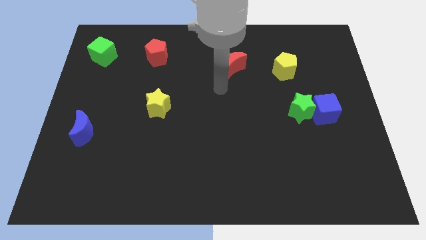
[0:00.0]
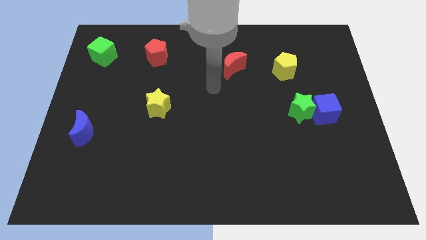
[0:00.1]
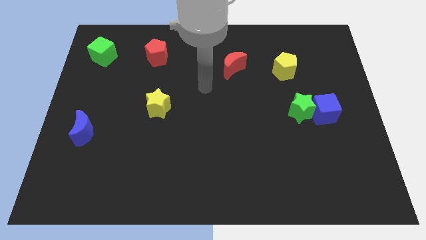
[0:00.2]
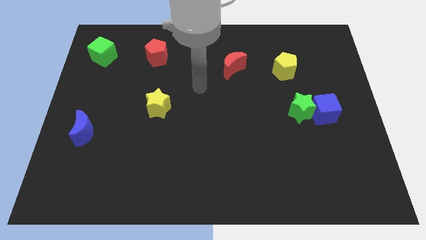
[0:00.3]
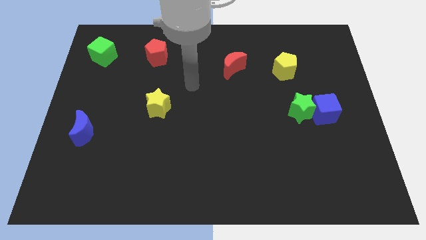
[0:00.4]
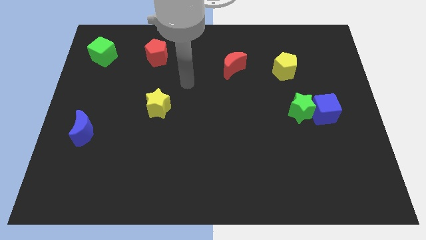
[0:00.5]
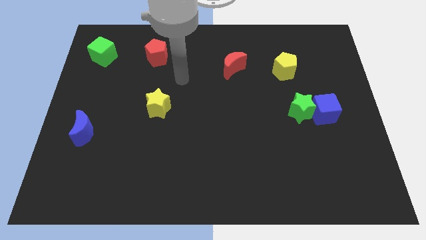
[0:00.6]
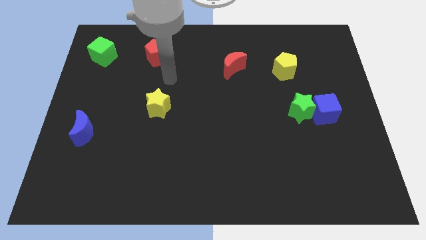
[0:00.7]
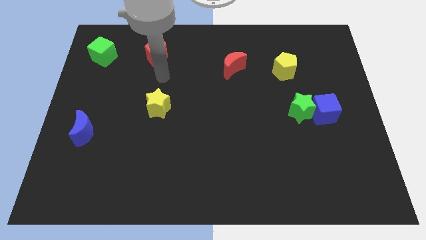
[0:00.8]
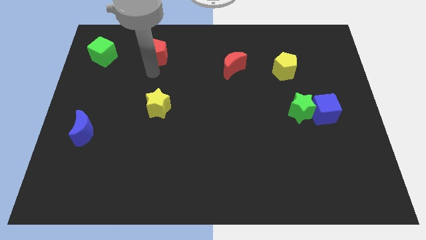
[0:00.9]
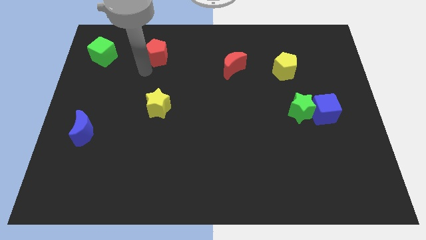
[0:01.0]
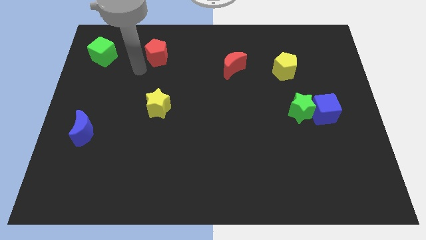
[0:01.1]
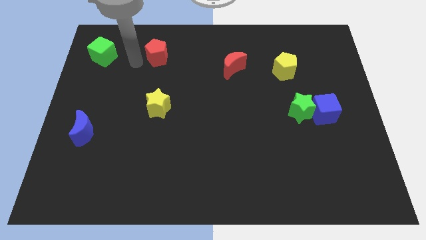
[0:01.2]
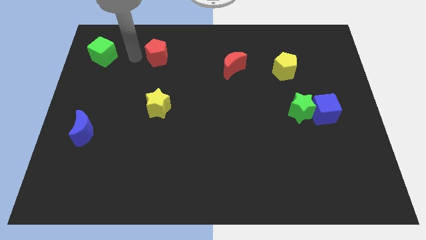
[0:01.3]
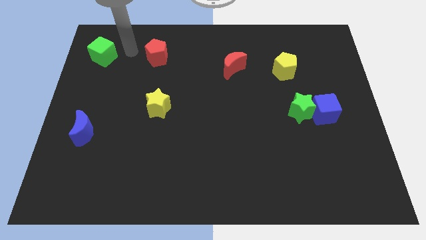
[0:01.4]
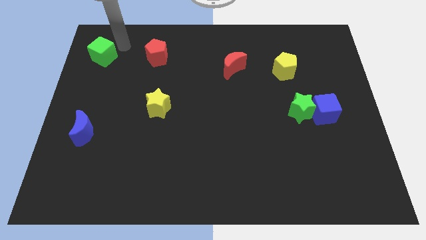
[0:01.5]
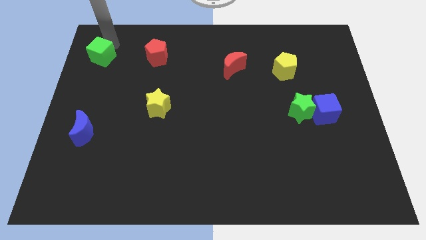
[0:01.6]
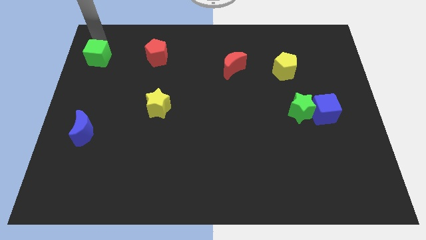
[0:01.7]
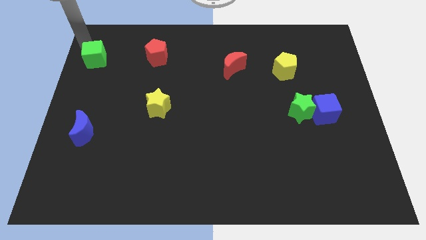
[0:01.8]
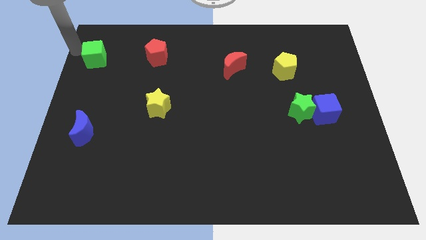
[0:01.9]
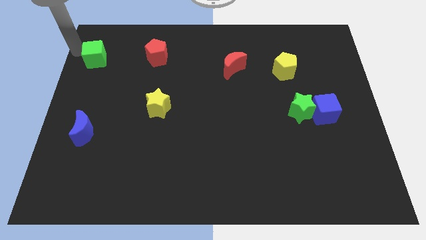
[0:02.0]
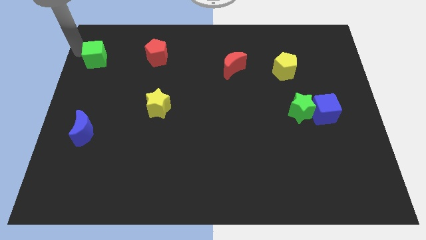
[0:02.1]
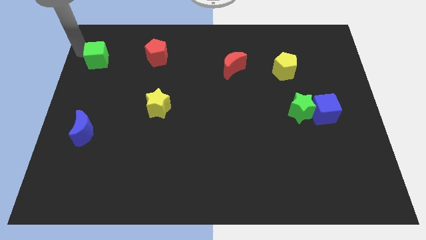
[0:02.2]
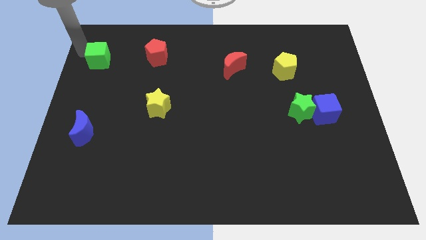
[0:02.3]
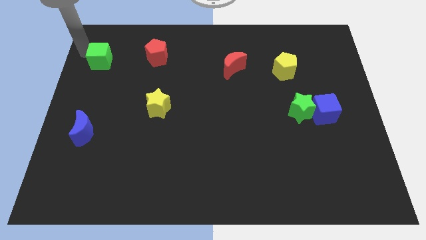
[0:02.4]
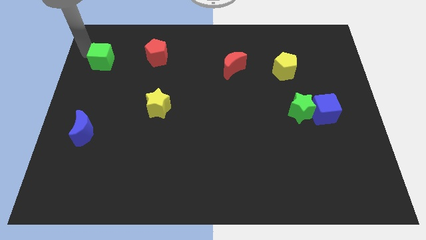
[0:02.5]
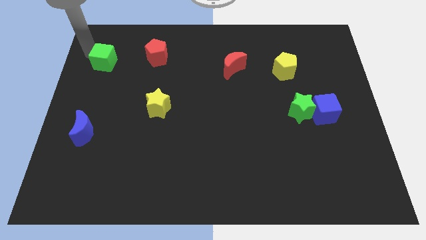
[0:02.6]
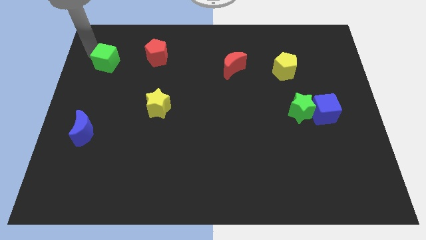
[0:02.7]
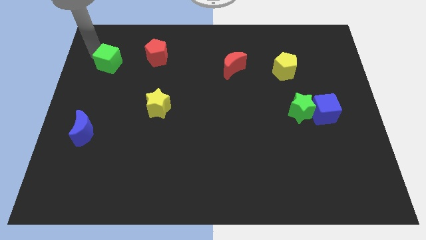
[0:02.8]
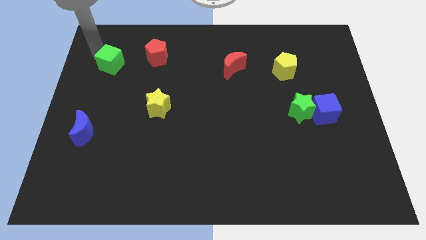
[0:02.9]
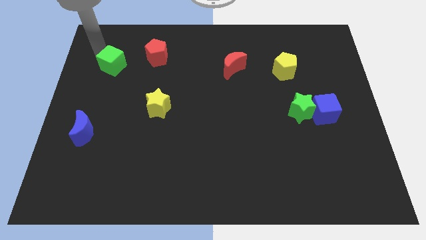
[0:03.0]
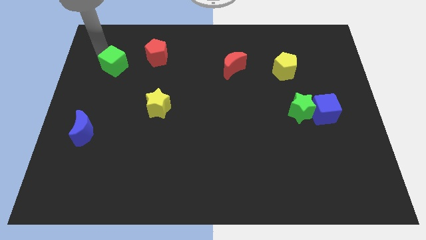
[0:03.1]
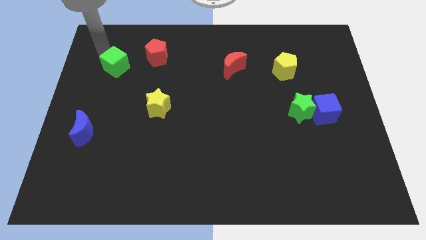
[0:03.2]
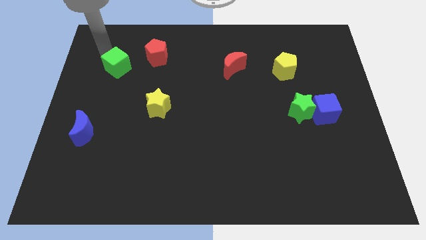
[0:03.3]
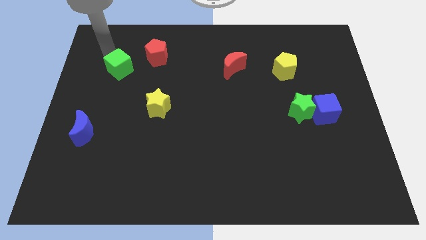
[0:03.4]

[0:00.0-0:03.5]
slightly move the green cube downwards and then right

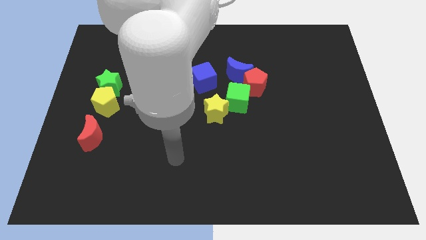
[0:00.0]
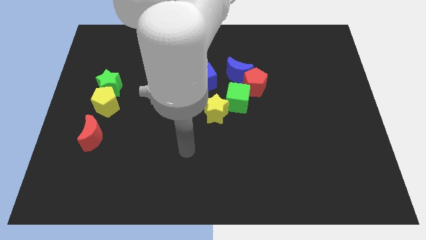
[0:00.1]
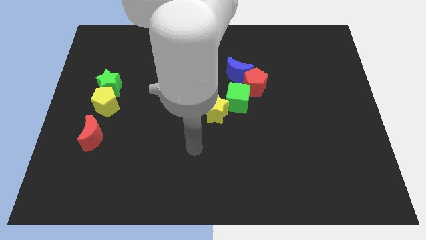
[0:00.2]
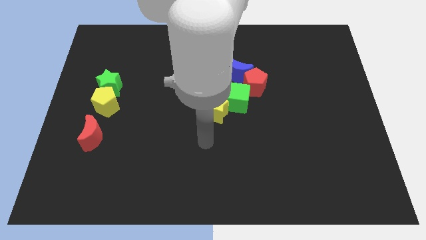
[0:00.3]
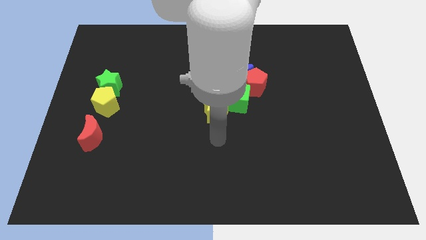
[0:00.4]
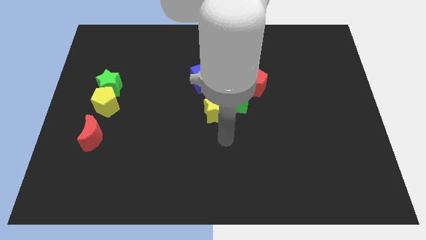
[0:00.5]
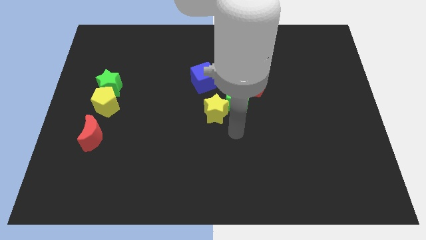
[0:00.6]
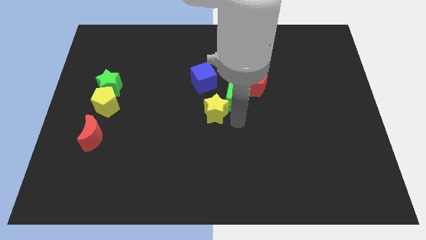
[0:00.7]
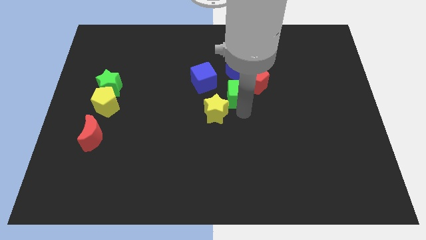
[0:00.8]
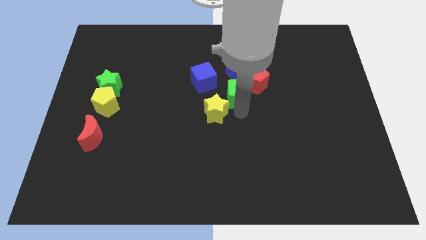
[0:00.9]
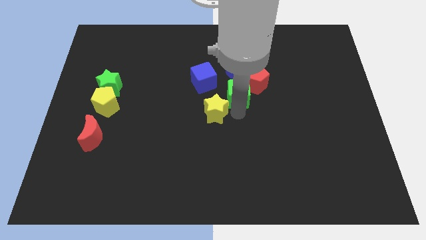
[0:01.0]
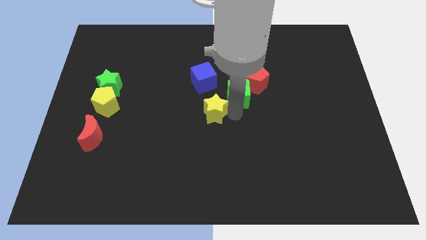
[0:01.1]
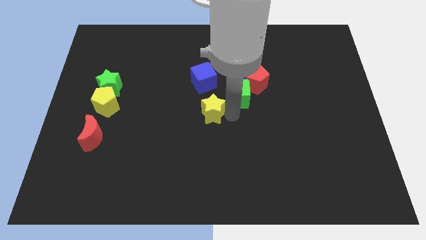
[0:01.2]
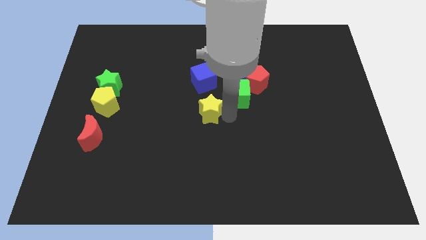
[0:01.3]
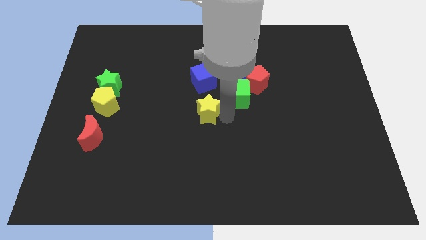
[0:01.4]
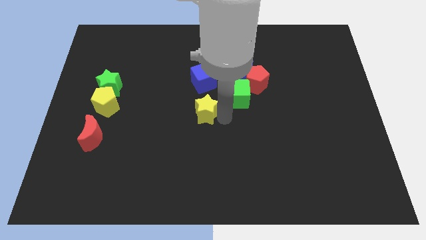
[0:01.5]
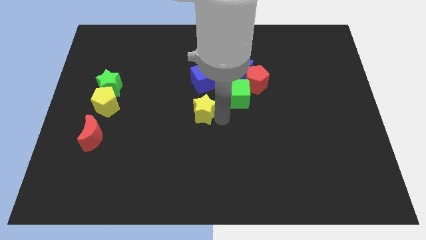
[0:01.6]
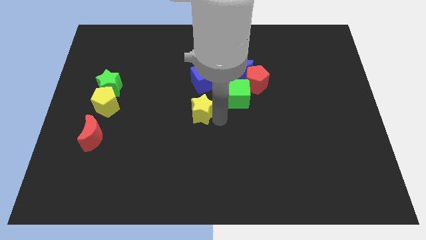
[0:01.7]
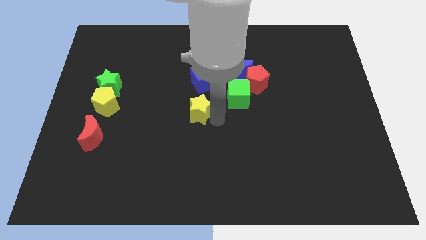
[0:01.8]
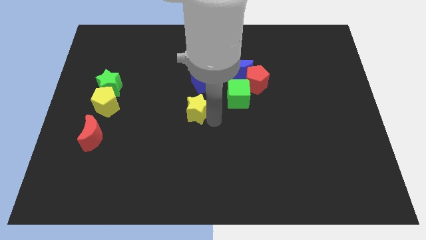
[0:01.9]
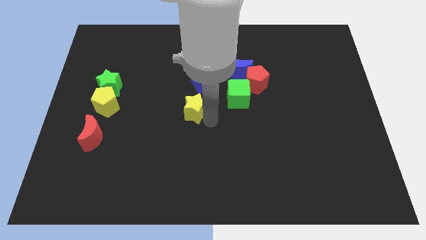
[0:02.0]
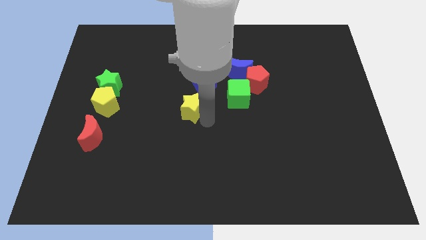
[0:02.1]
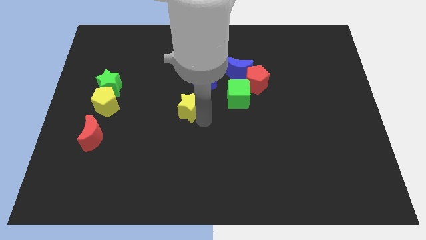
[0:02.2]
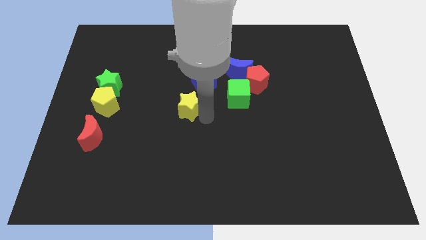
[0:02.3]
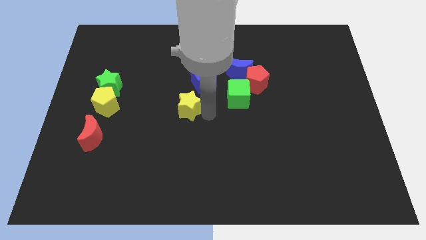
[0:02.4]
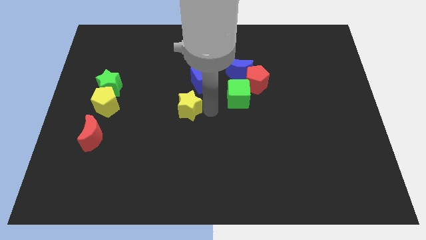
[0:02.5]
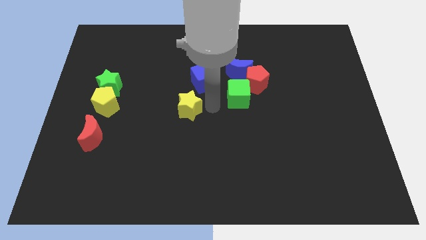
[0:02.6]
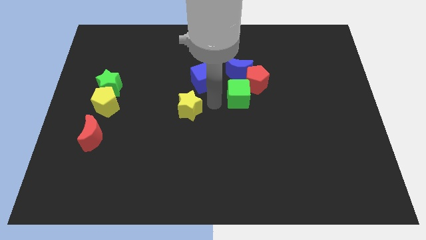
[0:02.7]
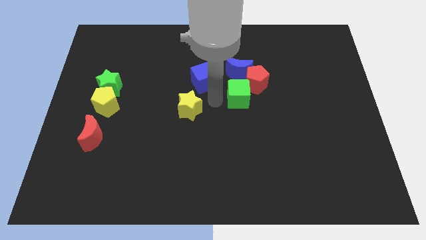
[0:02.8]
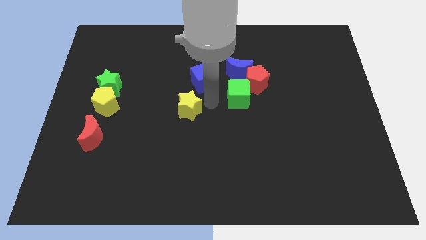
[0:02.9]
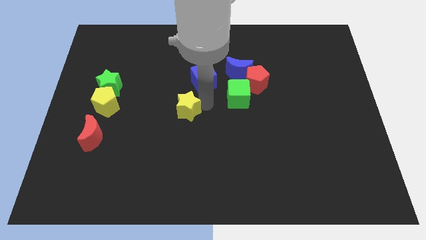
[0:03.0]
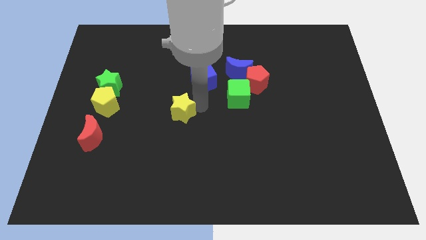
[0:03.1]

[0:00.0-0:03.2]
move the yellow star left somewhat

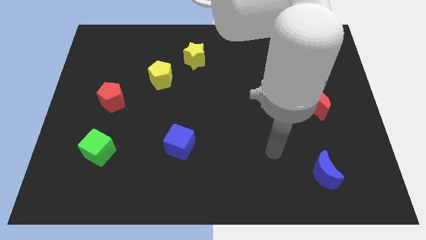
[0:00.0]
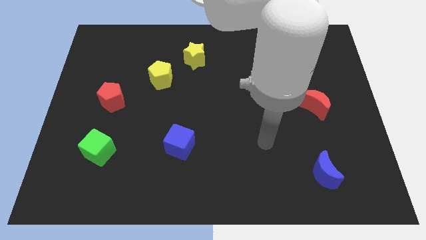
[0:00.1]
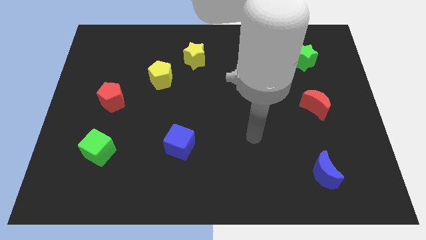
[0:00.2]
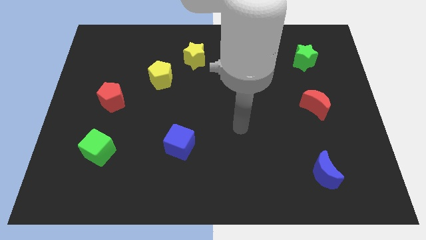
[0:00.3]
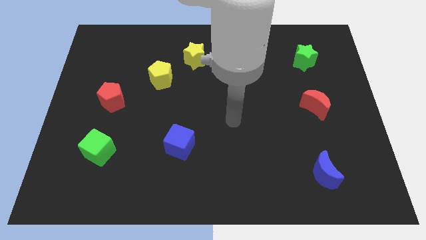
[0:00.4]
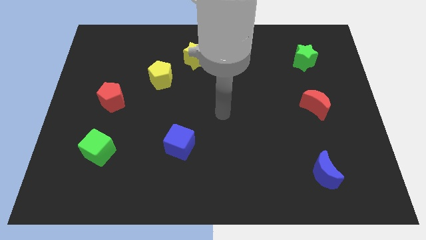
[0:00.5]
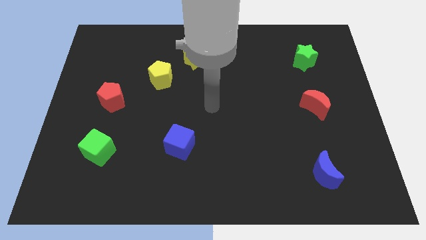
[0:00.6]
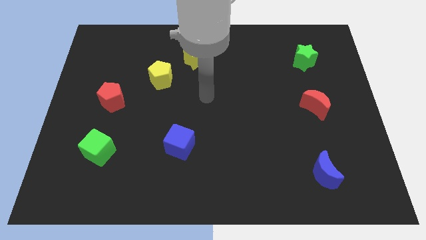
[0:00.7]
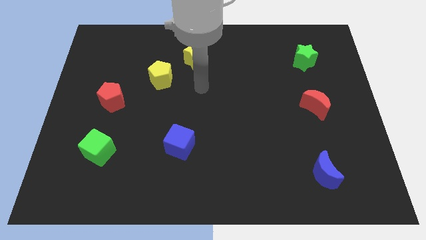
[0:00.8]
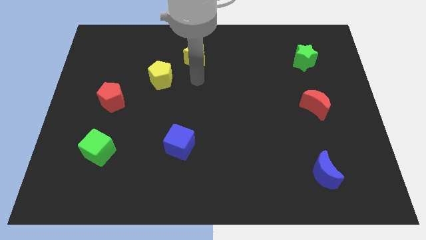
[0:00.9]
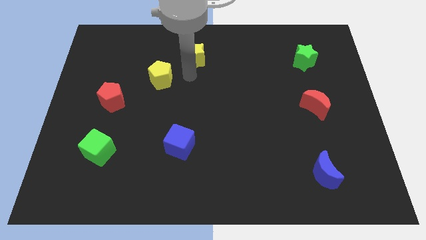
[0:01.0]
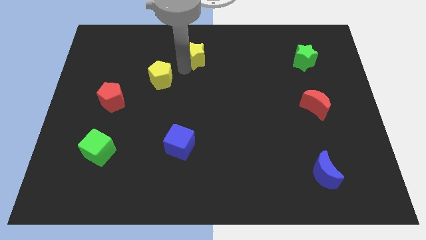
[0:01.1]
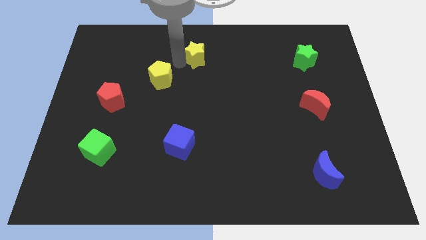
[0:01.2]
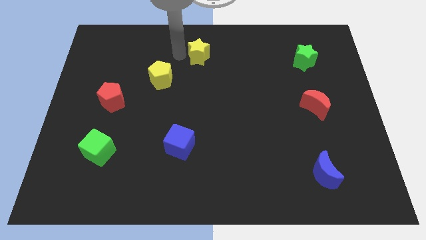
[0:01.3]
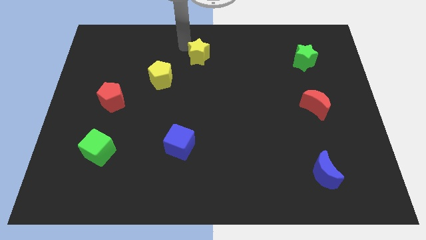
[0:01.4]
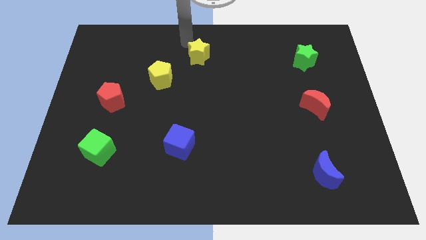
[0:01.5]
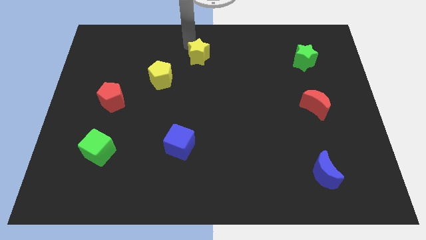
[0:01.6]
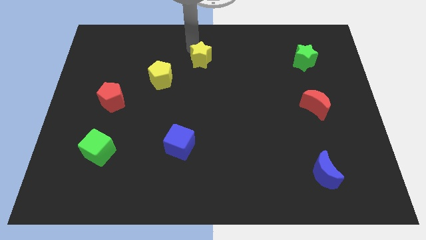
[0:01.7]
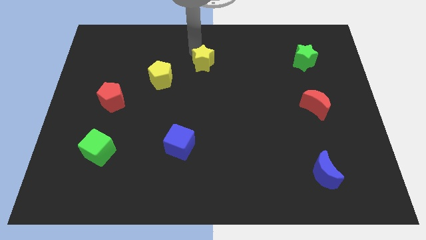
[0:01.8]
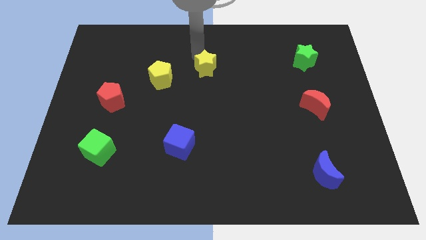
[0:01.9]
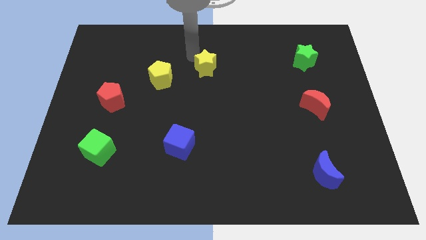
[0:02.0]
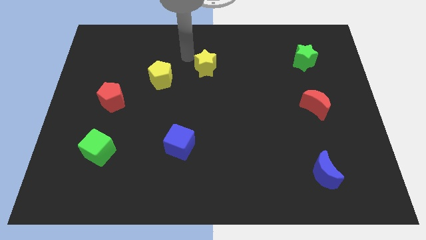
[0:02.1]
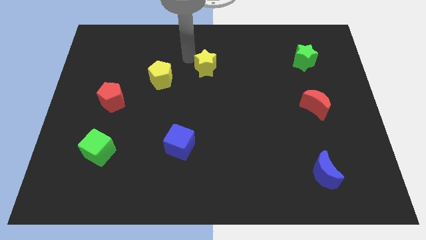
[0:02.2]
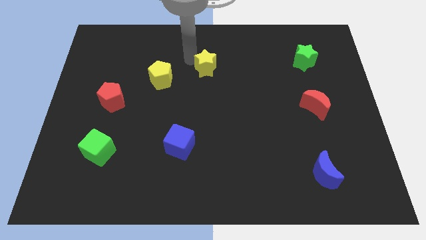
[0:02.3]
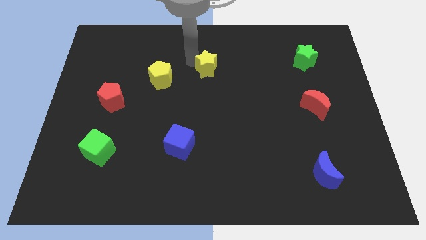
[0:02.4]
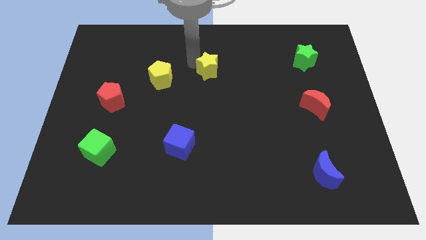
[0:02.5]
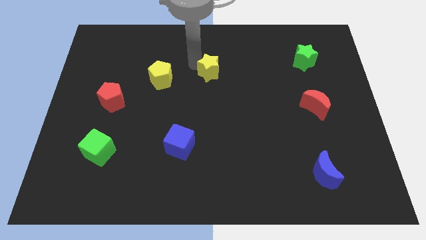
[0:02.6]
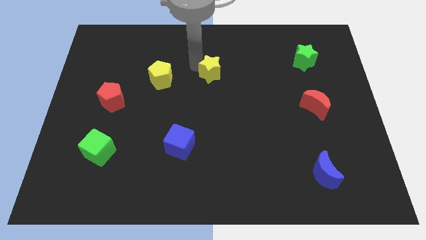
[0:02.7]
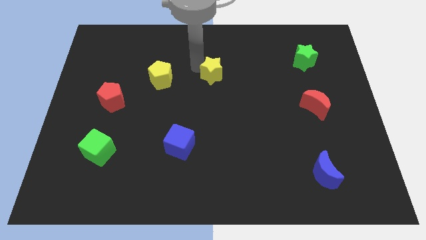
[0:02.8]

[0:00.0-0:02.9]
slightly move the yellow star diagonally downwards and right
